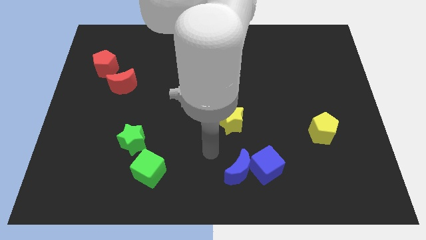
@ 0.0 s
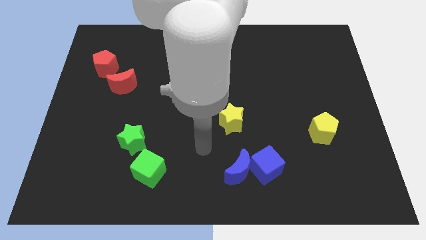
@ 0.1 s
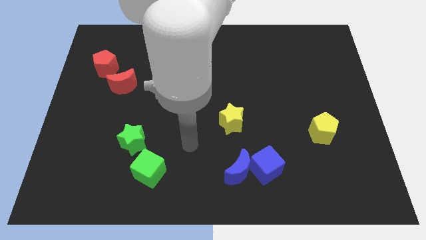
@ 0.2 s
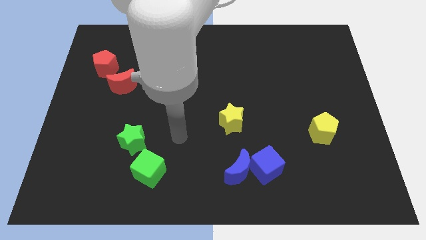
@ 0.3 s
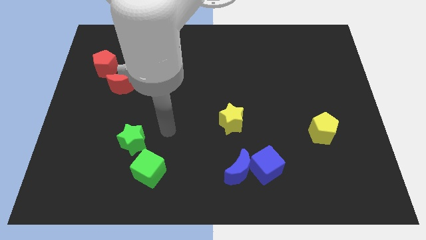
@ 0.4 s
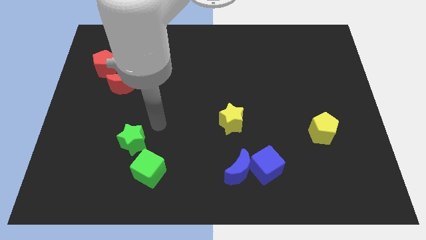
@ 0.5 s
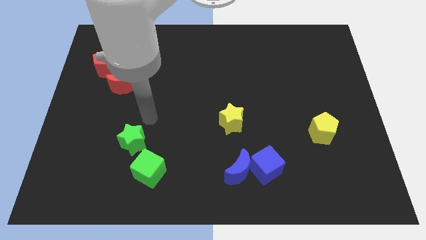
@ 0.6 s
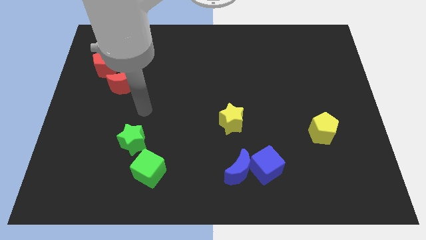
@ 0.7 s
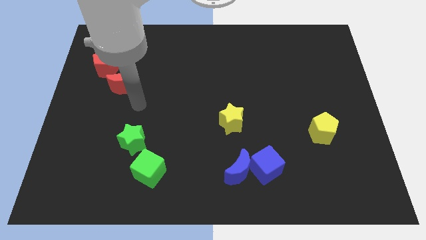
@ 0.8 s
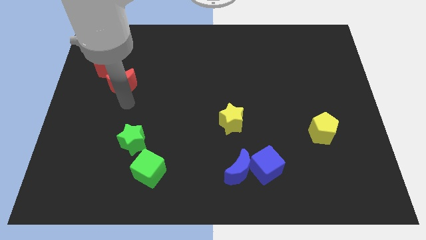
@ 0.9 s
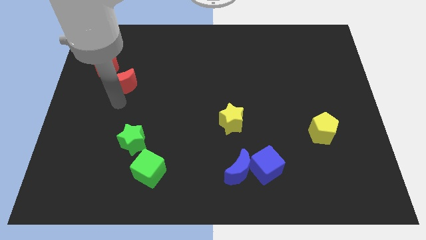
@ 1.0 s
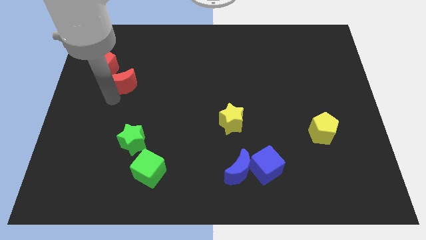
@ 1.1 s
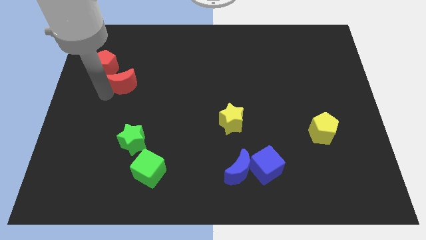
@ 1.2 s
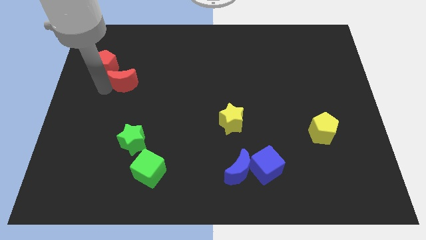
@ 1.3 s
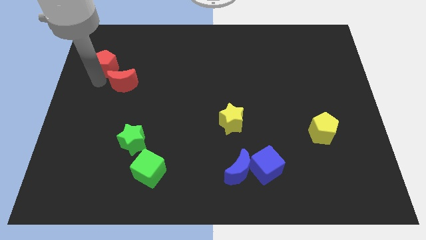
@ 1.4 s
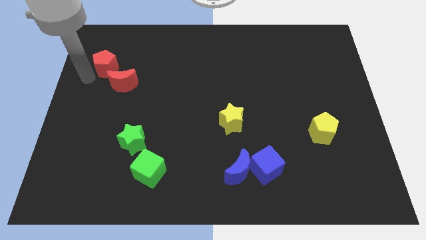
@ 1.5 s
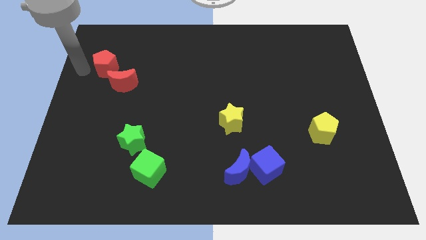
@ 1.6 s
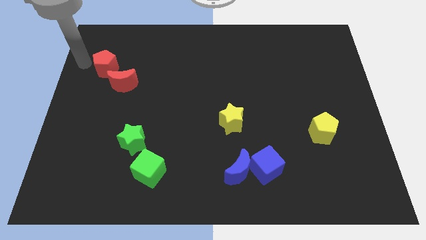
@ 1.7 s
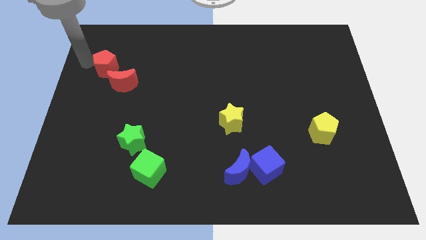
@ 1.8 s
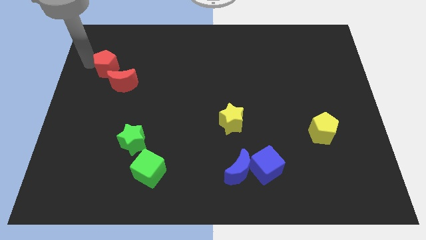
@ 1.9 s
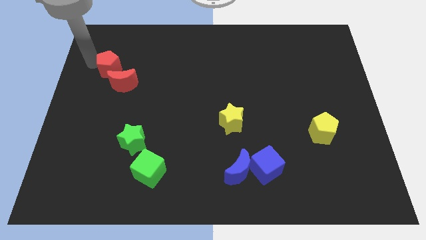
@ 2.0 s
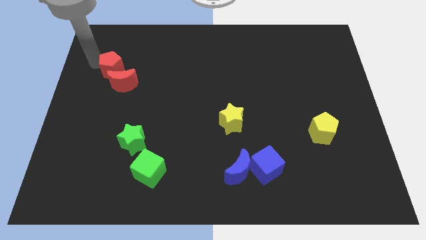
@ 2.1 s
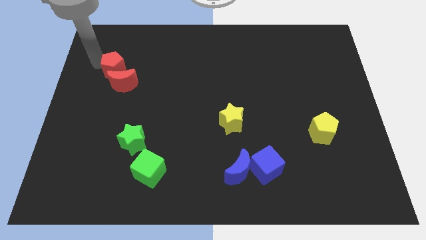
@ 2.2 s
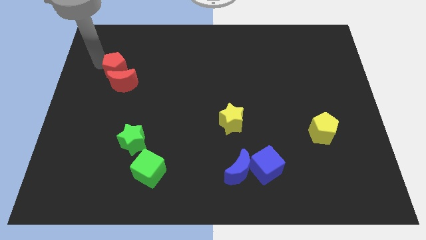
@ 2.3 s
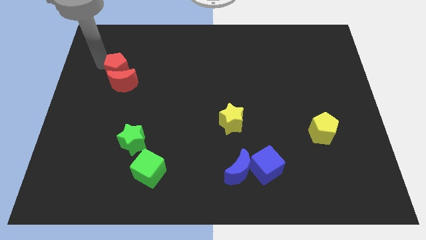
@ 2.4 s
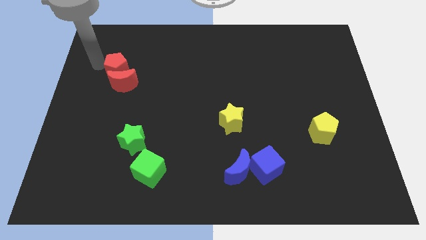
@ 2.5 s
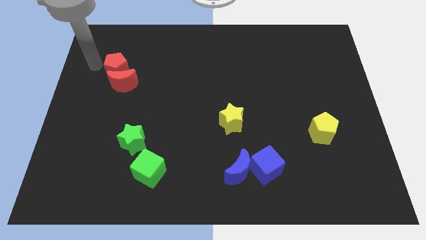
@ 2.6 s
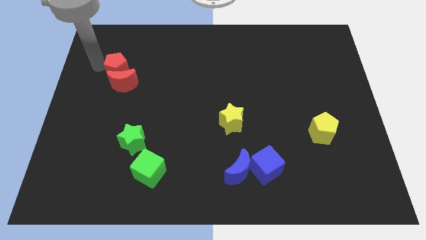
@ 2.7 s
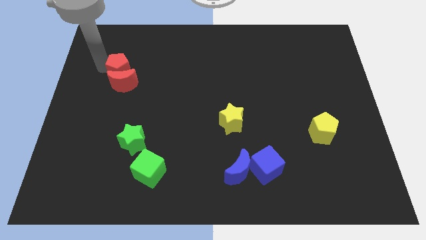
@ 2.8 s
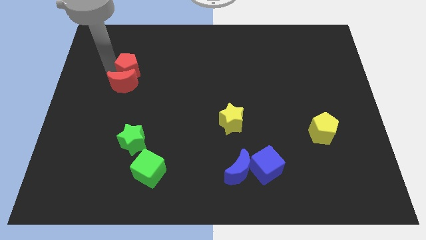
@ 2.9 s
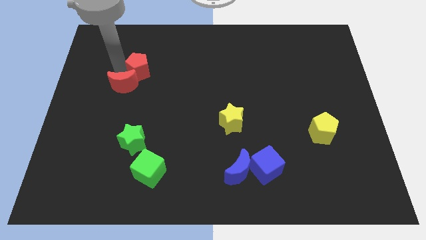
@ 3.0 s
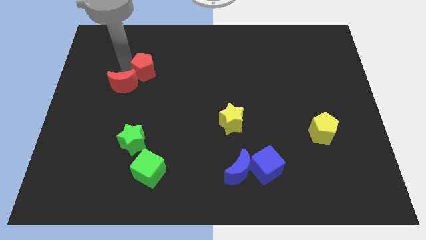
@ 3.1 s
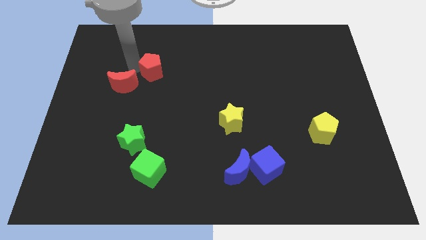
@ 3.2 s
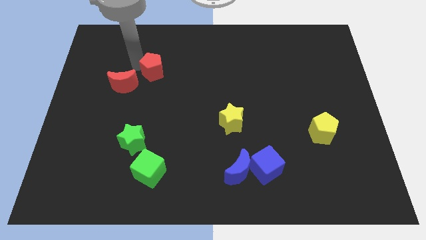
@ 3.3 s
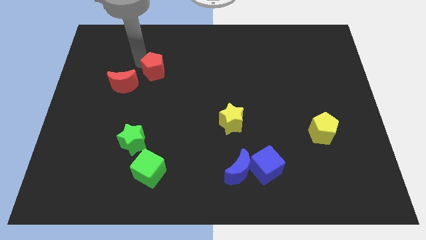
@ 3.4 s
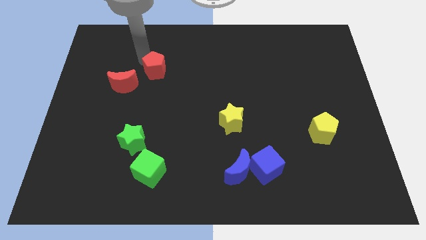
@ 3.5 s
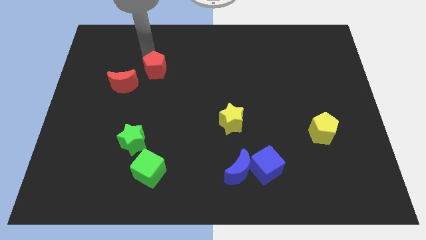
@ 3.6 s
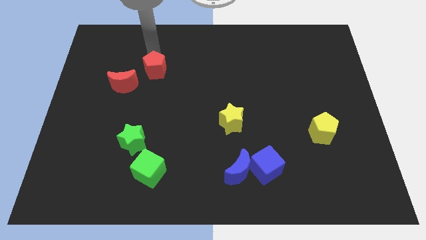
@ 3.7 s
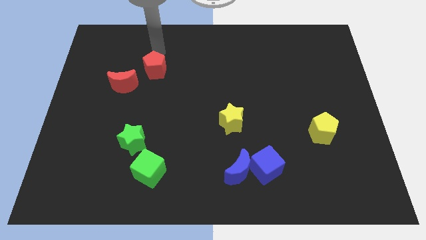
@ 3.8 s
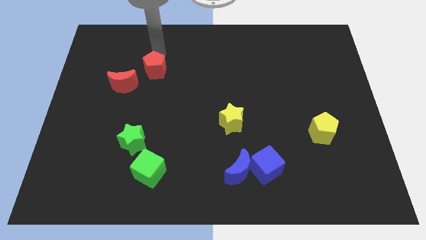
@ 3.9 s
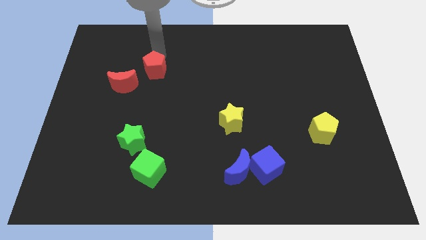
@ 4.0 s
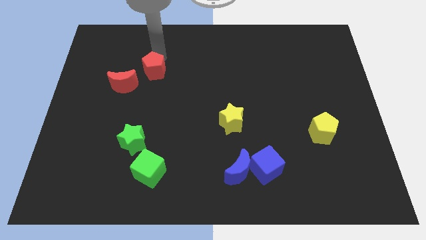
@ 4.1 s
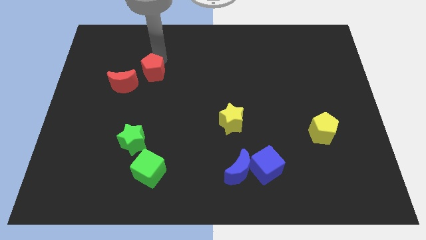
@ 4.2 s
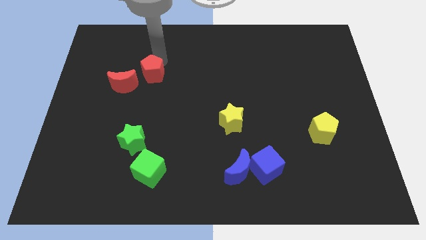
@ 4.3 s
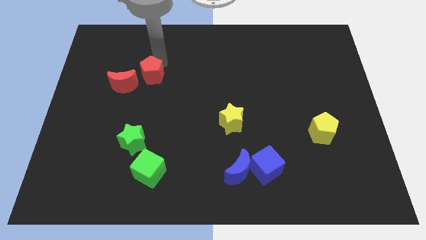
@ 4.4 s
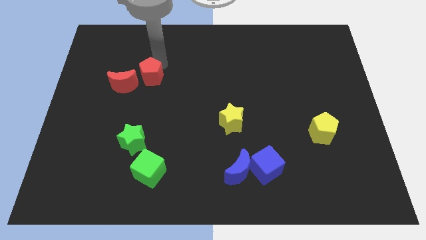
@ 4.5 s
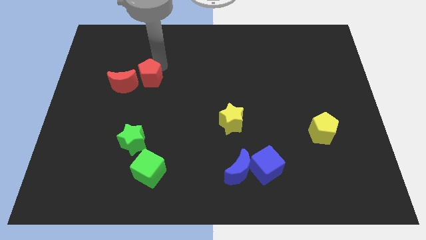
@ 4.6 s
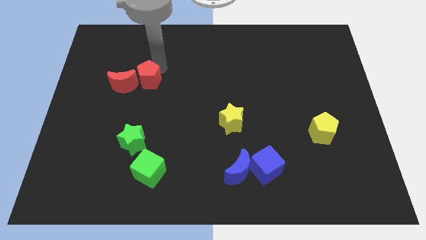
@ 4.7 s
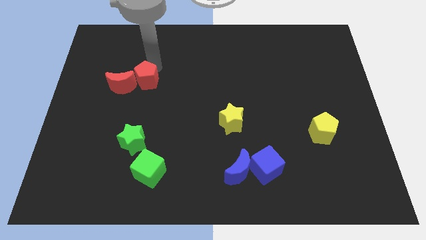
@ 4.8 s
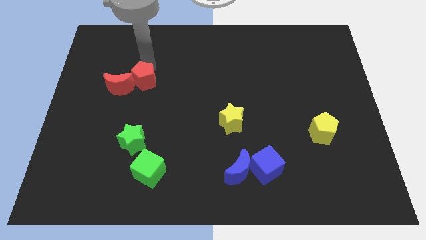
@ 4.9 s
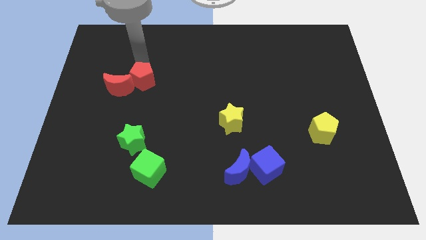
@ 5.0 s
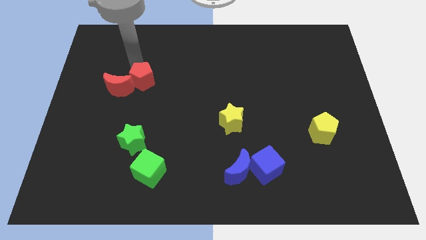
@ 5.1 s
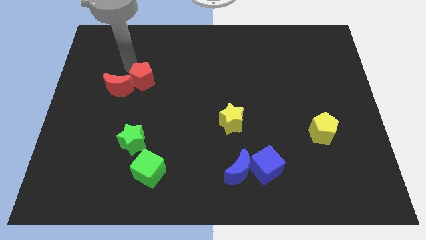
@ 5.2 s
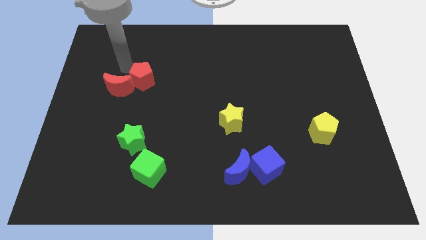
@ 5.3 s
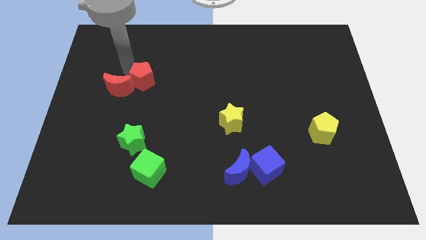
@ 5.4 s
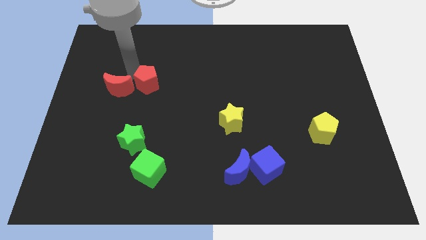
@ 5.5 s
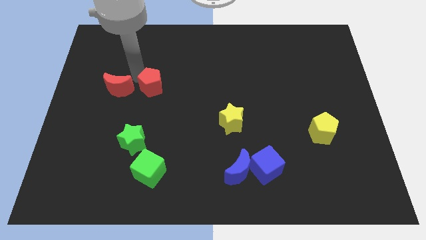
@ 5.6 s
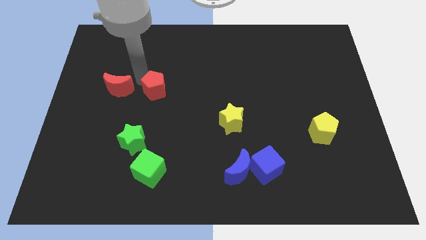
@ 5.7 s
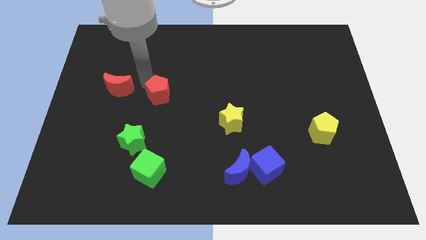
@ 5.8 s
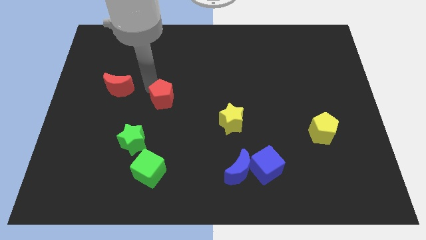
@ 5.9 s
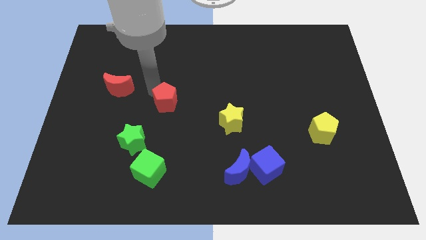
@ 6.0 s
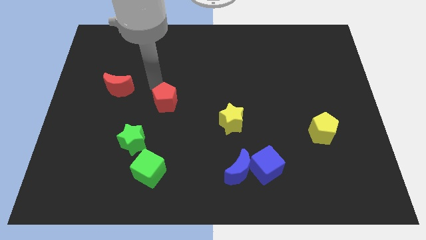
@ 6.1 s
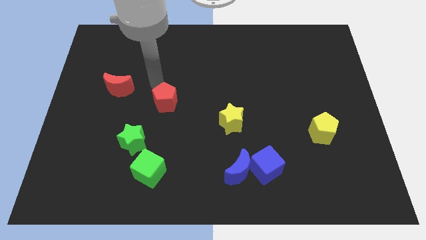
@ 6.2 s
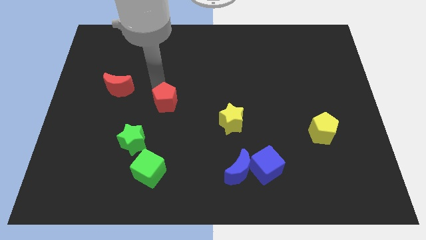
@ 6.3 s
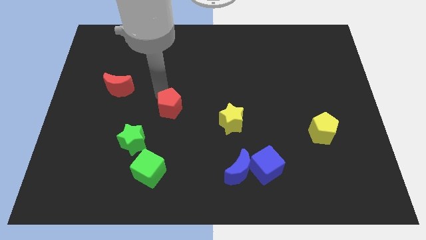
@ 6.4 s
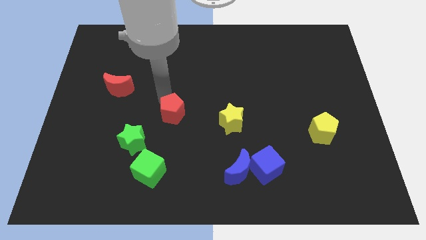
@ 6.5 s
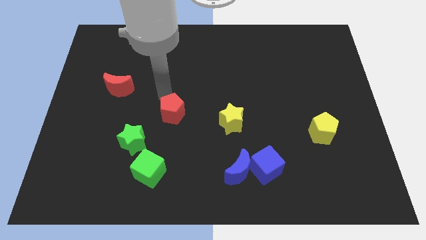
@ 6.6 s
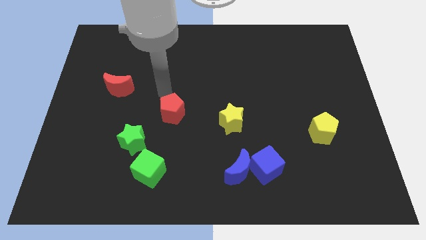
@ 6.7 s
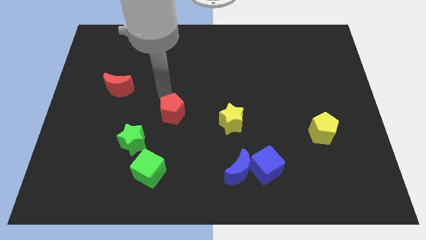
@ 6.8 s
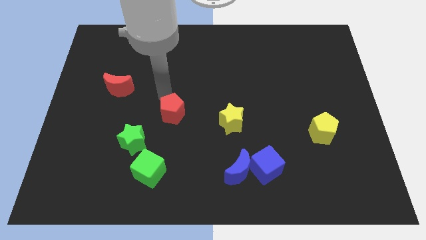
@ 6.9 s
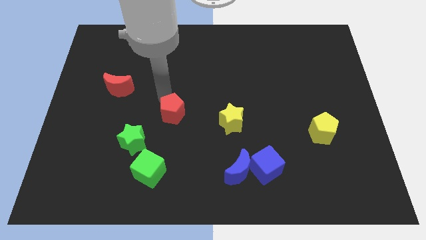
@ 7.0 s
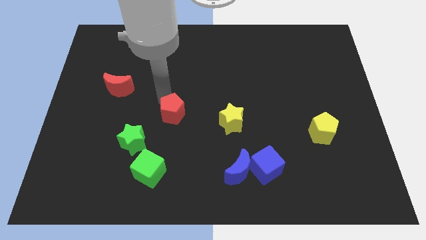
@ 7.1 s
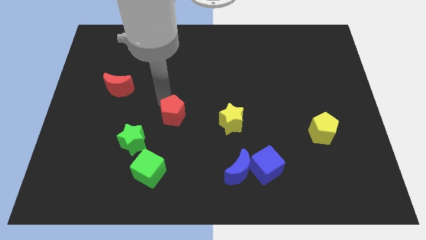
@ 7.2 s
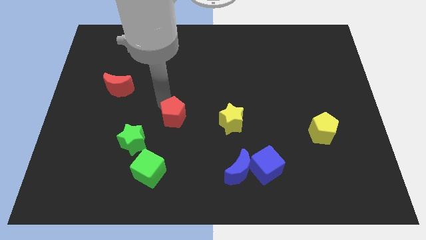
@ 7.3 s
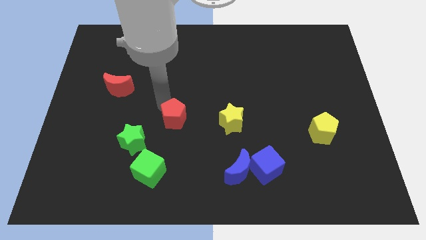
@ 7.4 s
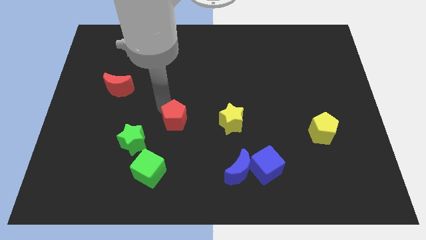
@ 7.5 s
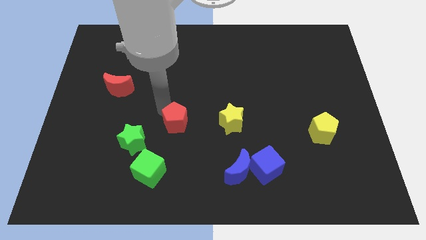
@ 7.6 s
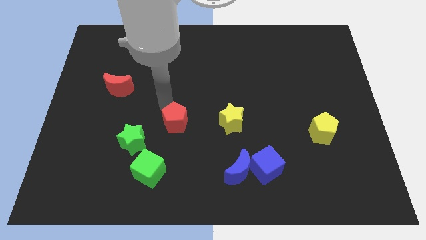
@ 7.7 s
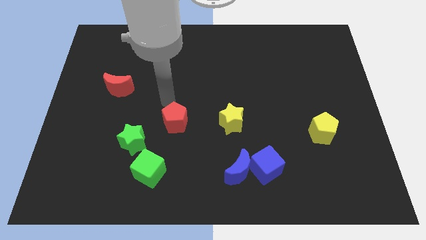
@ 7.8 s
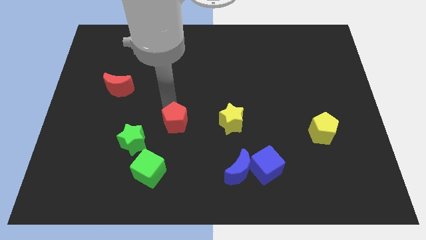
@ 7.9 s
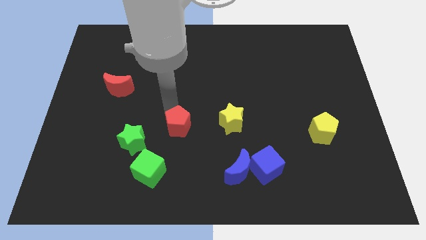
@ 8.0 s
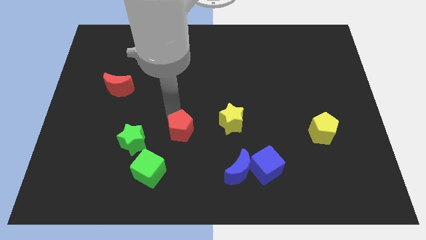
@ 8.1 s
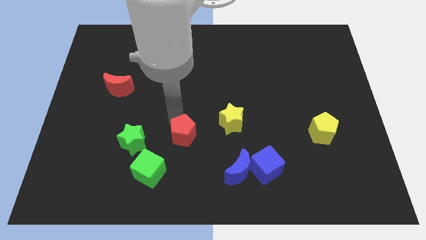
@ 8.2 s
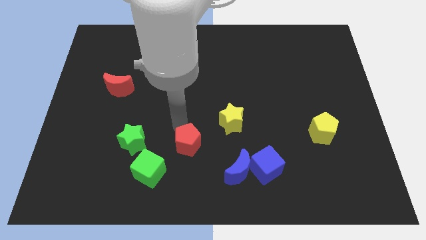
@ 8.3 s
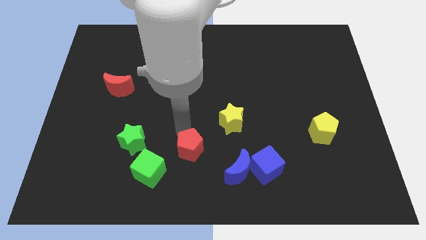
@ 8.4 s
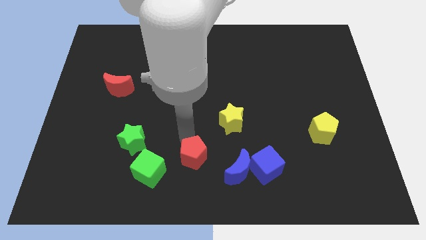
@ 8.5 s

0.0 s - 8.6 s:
move the red pentagon to the left of the blue moon
